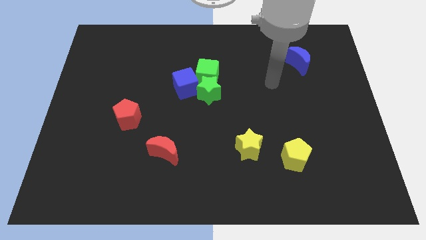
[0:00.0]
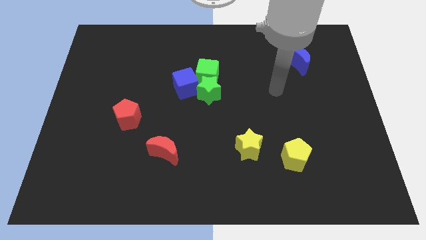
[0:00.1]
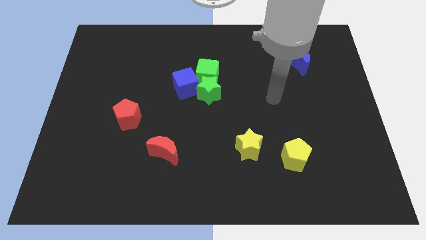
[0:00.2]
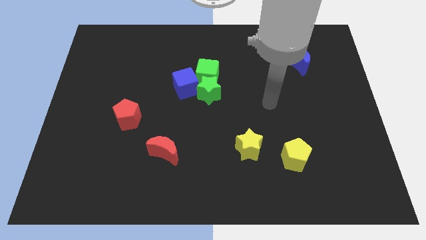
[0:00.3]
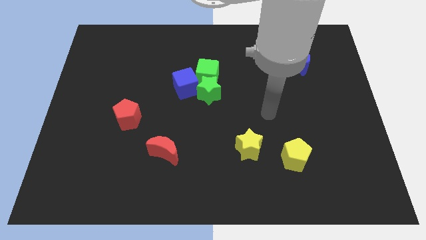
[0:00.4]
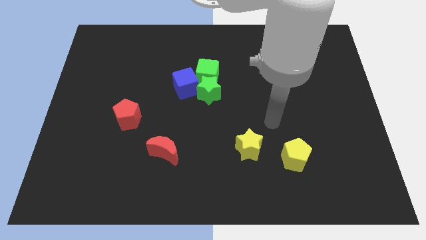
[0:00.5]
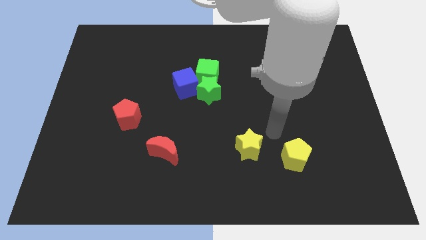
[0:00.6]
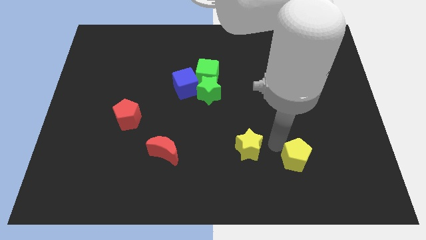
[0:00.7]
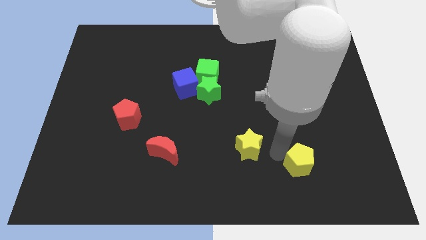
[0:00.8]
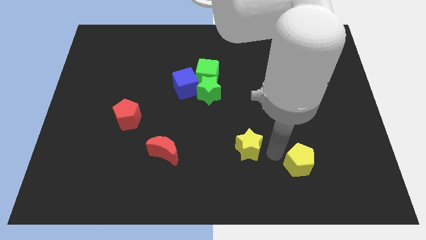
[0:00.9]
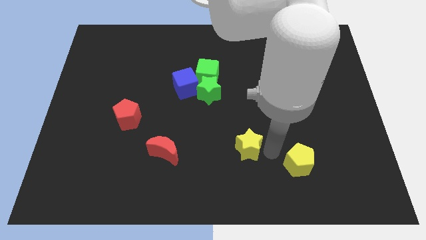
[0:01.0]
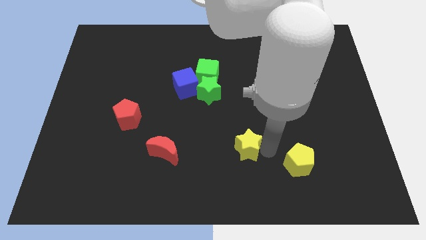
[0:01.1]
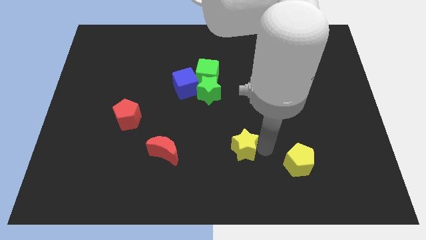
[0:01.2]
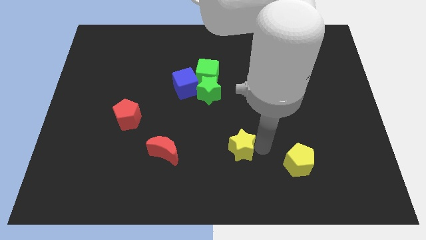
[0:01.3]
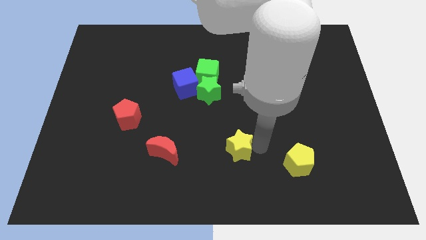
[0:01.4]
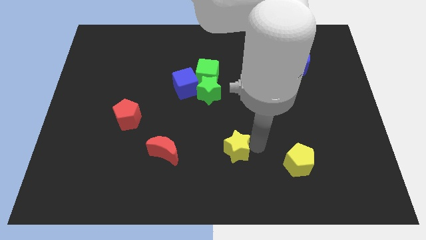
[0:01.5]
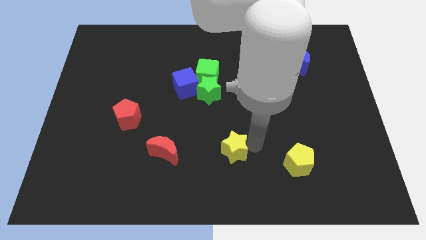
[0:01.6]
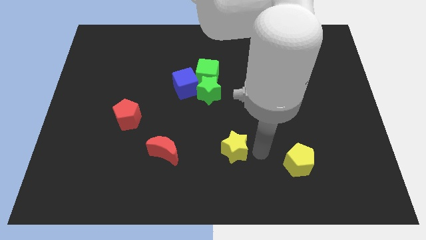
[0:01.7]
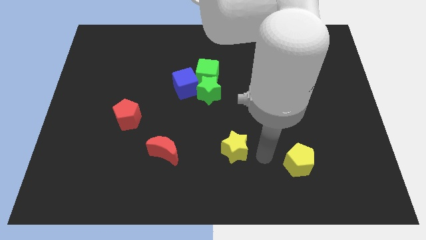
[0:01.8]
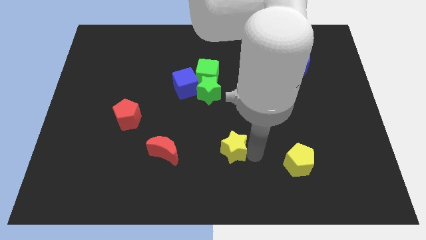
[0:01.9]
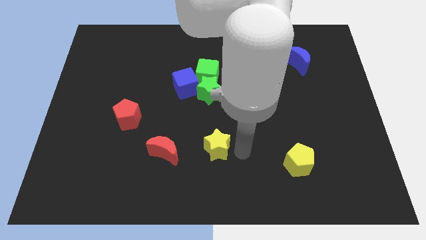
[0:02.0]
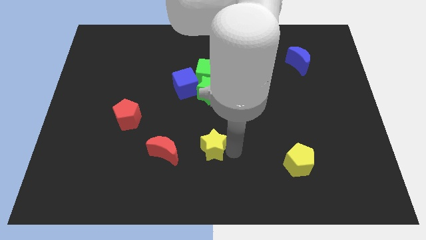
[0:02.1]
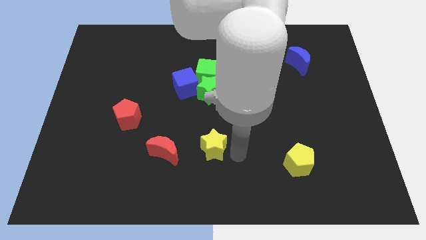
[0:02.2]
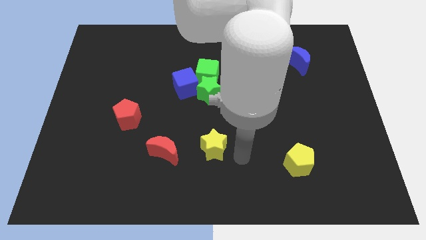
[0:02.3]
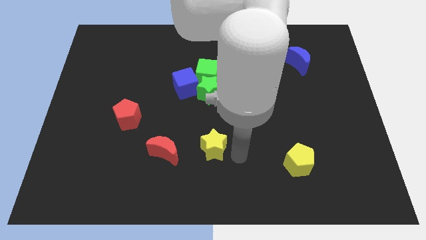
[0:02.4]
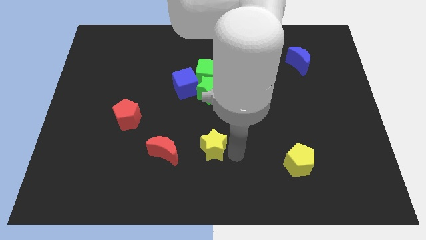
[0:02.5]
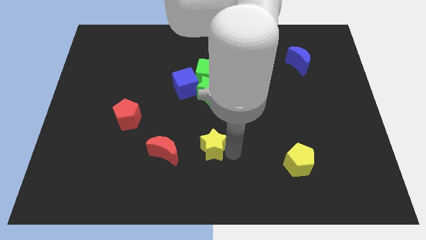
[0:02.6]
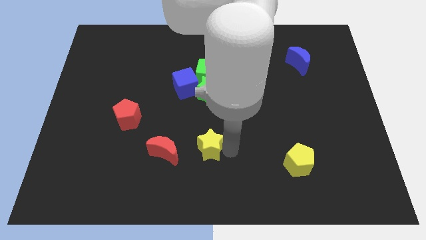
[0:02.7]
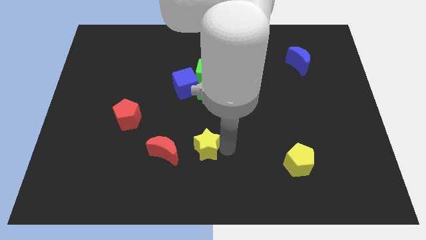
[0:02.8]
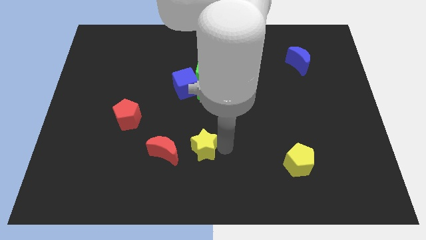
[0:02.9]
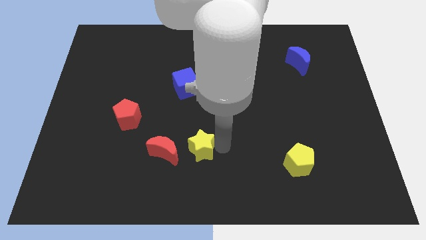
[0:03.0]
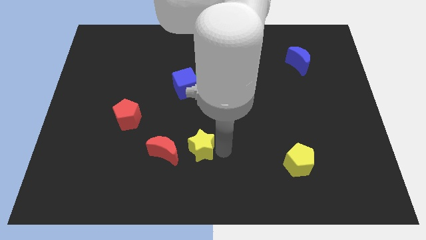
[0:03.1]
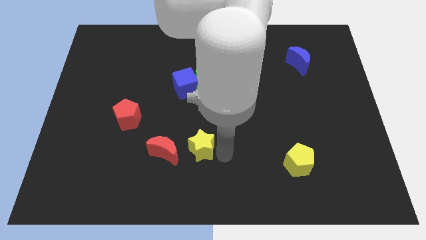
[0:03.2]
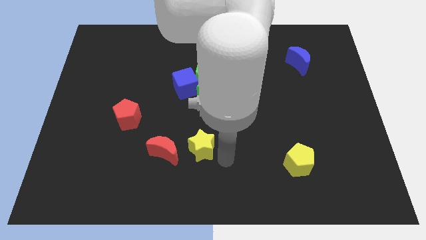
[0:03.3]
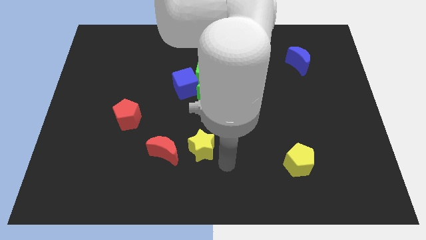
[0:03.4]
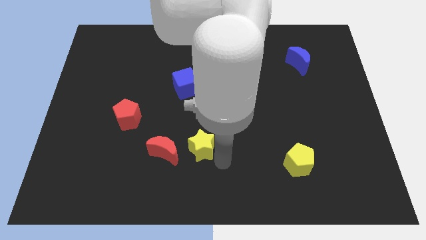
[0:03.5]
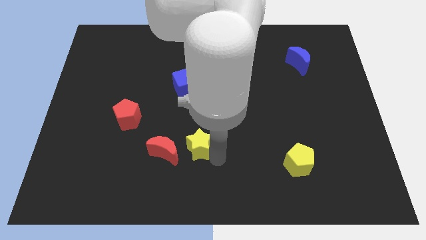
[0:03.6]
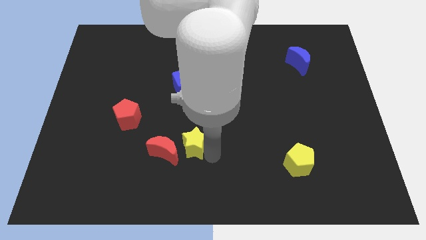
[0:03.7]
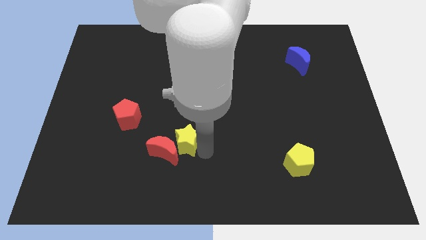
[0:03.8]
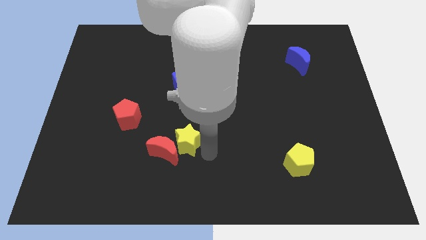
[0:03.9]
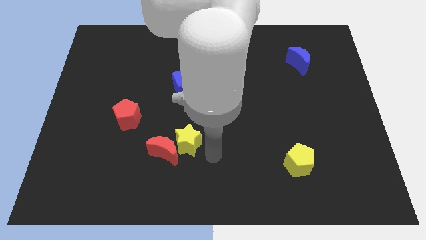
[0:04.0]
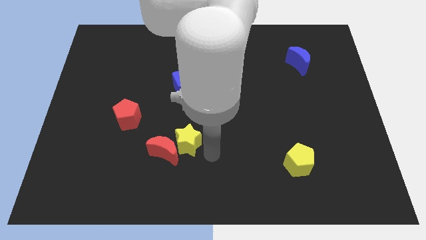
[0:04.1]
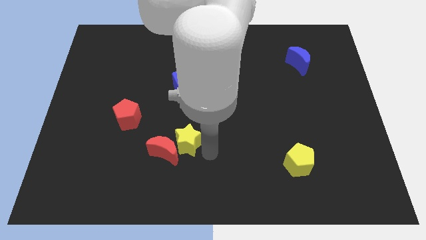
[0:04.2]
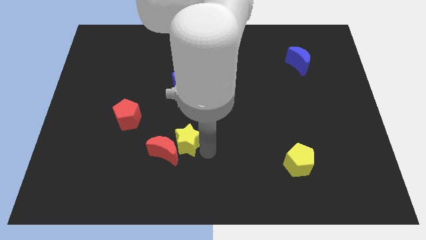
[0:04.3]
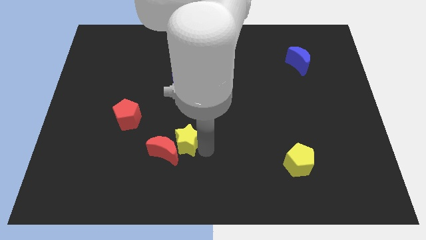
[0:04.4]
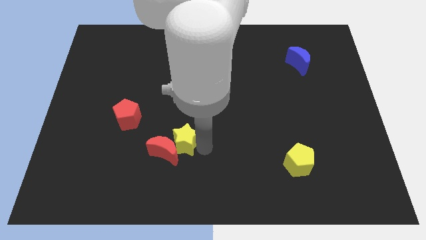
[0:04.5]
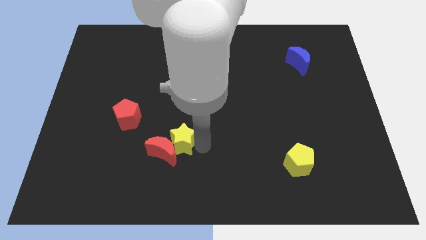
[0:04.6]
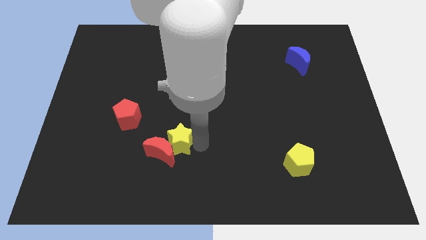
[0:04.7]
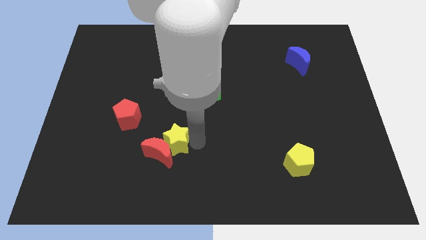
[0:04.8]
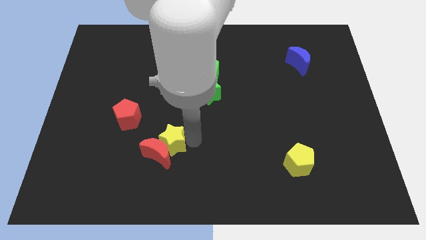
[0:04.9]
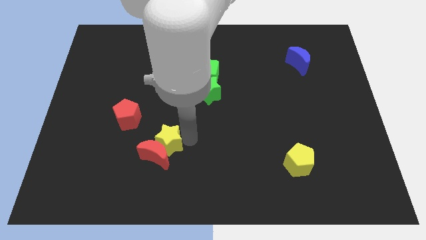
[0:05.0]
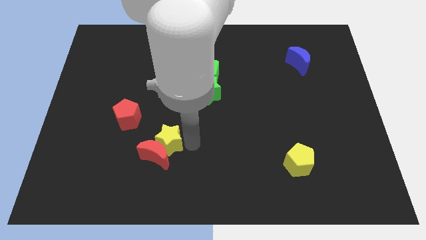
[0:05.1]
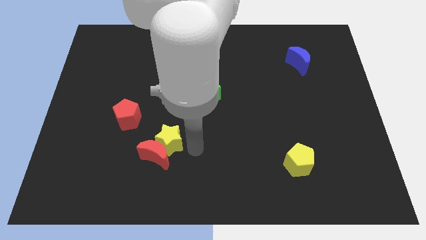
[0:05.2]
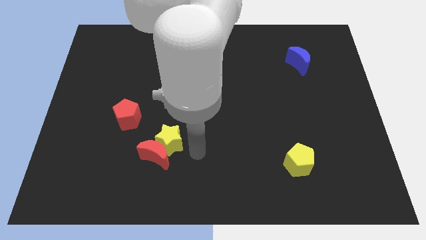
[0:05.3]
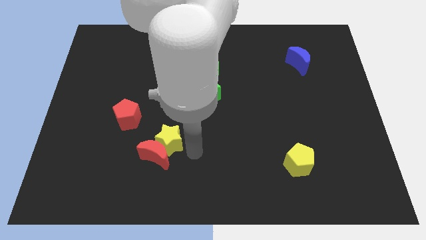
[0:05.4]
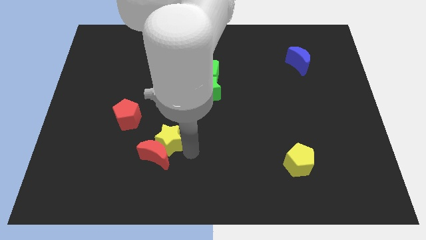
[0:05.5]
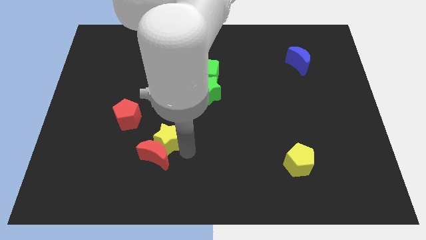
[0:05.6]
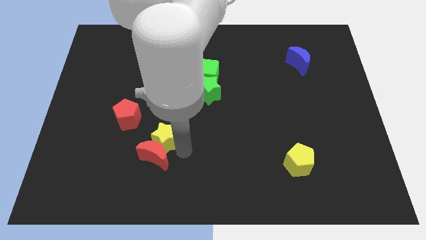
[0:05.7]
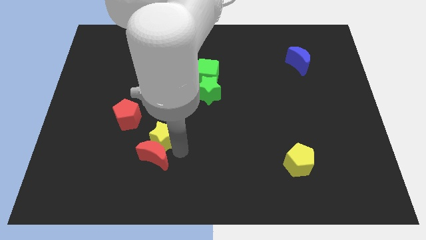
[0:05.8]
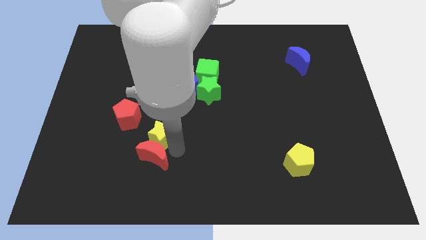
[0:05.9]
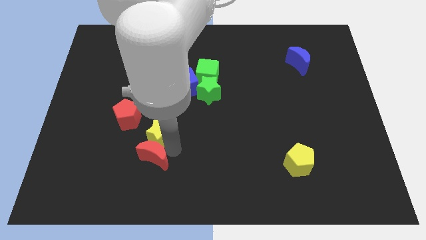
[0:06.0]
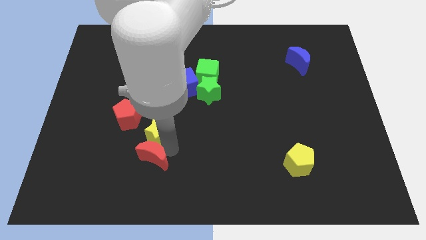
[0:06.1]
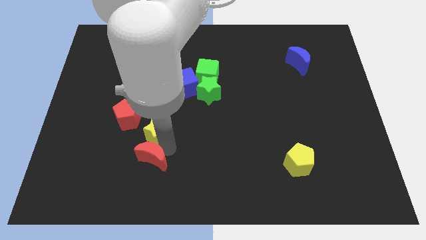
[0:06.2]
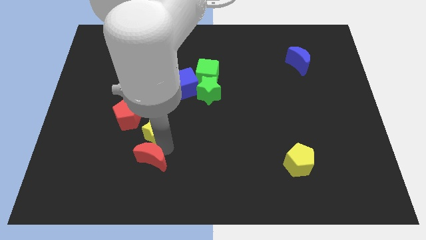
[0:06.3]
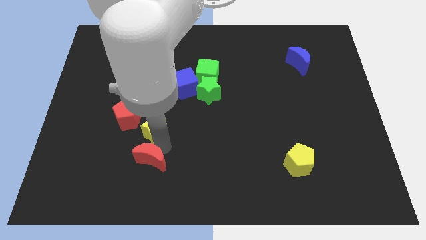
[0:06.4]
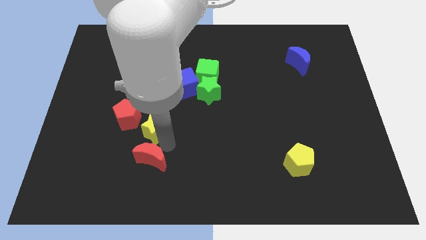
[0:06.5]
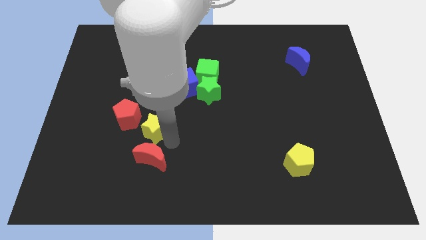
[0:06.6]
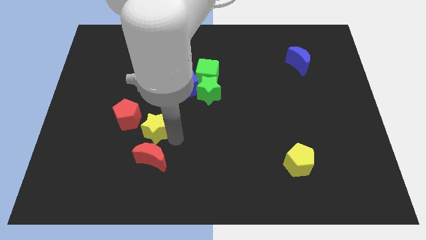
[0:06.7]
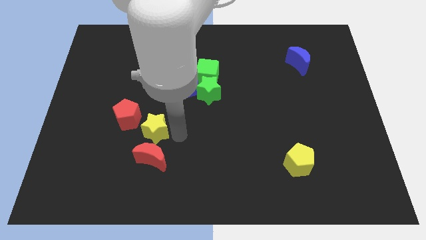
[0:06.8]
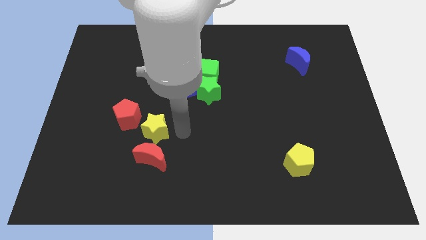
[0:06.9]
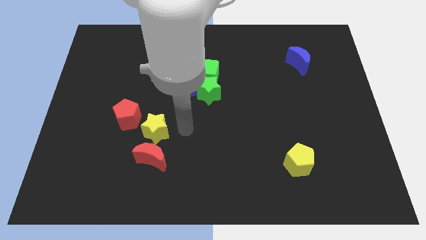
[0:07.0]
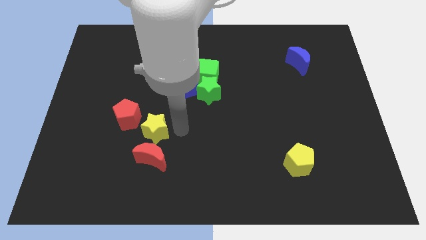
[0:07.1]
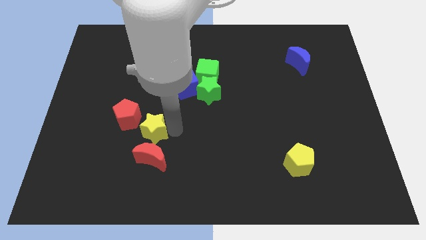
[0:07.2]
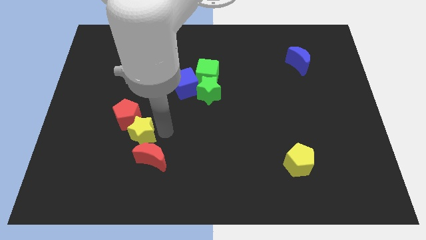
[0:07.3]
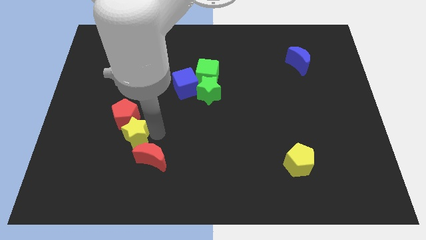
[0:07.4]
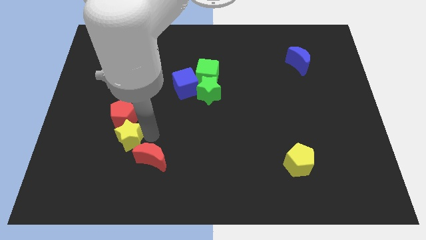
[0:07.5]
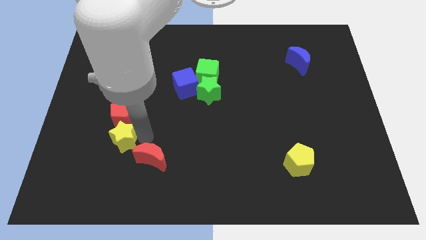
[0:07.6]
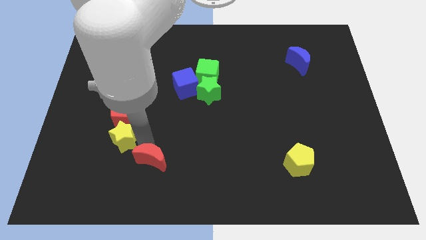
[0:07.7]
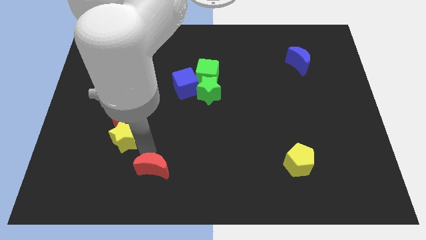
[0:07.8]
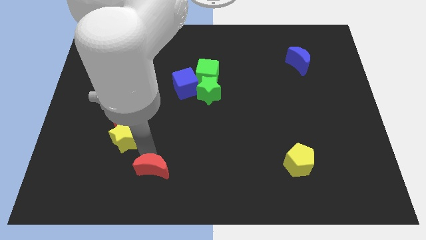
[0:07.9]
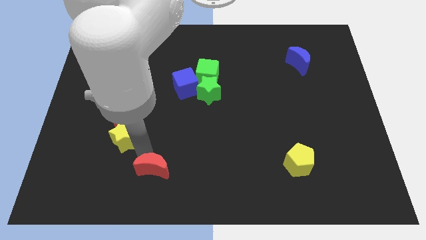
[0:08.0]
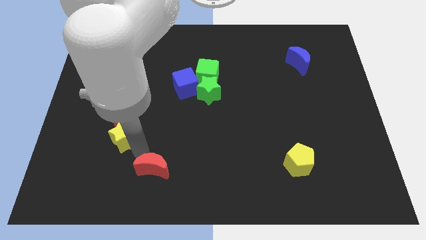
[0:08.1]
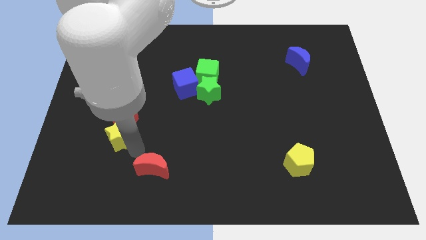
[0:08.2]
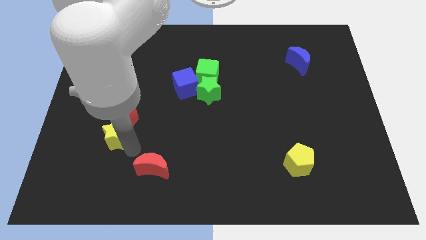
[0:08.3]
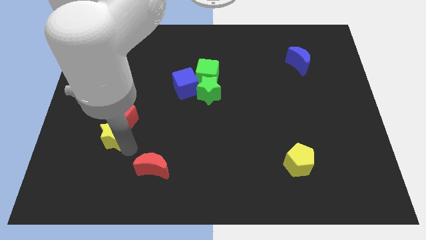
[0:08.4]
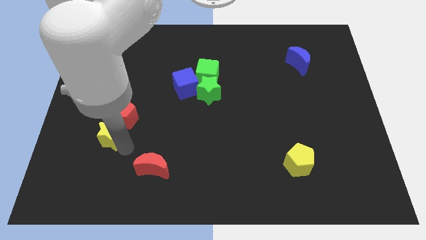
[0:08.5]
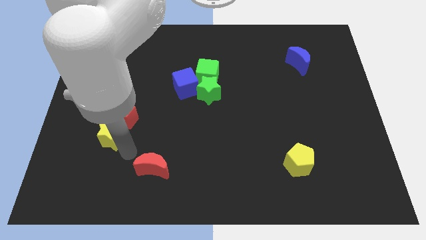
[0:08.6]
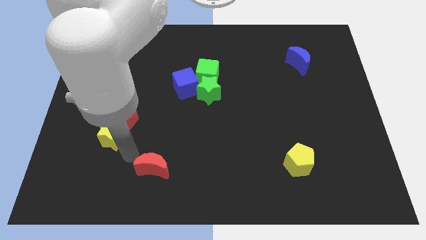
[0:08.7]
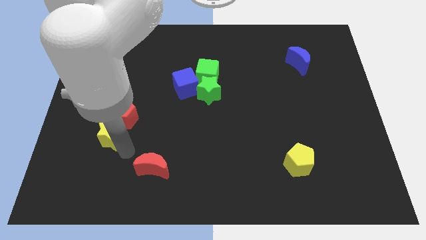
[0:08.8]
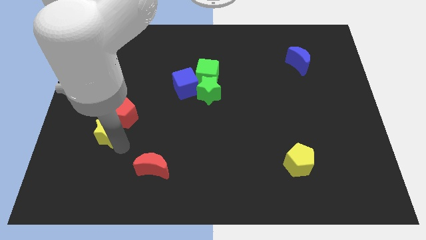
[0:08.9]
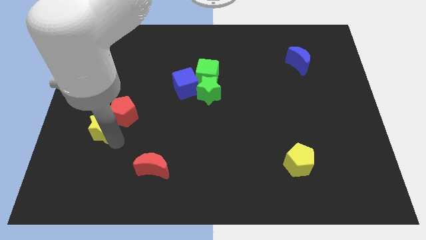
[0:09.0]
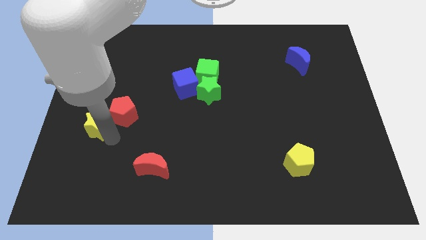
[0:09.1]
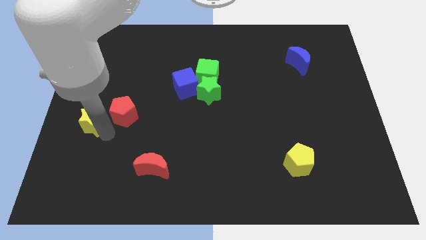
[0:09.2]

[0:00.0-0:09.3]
slide the yellow star to the left side
